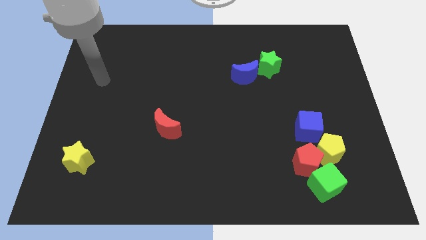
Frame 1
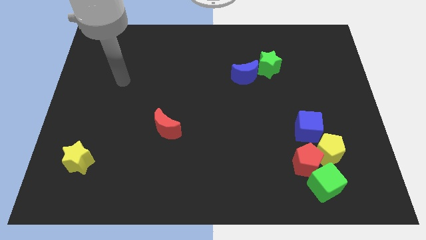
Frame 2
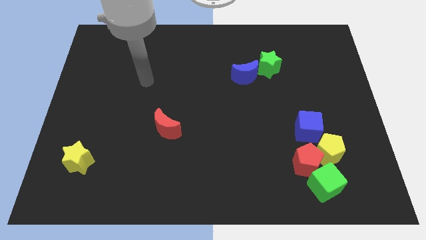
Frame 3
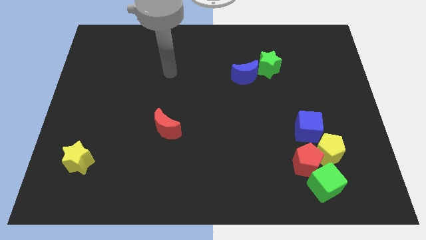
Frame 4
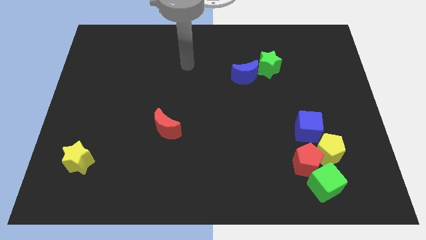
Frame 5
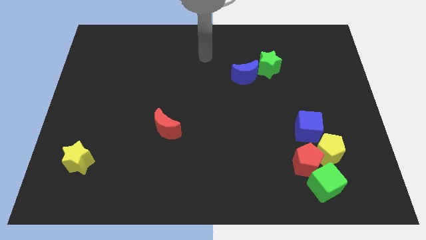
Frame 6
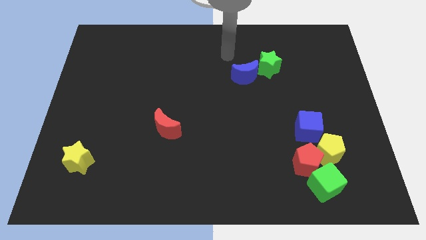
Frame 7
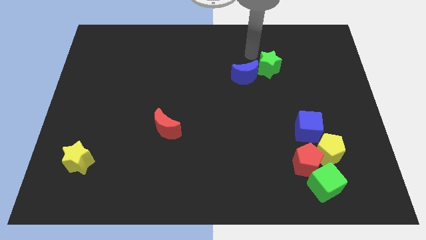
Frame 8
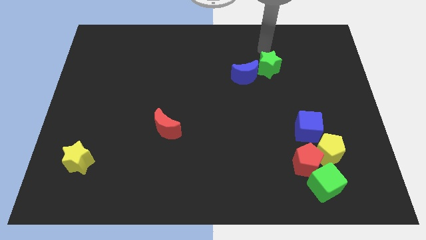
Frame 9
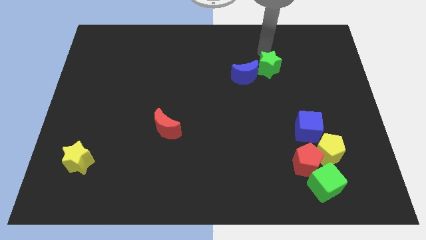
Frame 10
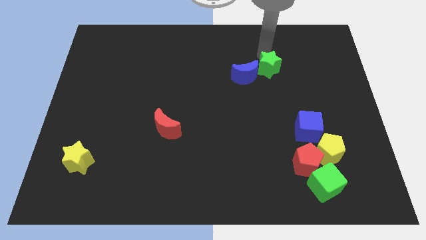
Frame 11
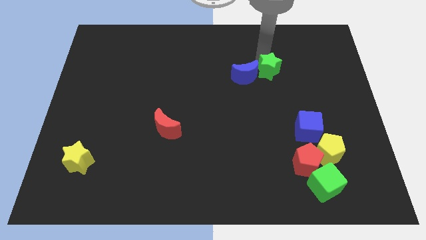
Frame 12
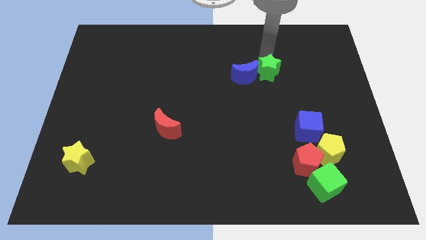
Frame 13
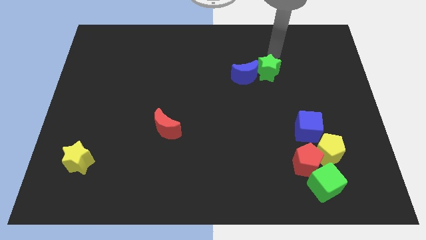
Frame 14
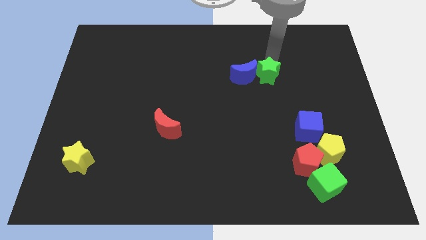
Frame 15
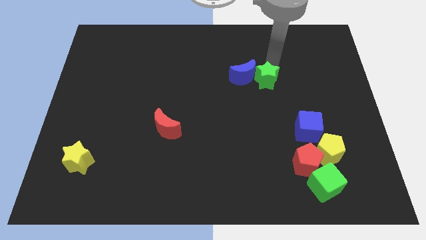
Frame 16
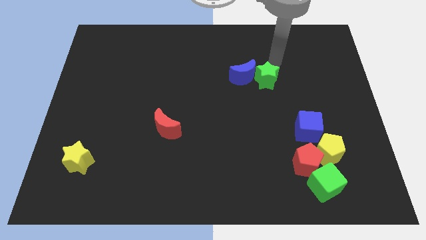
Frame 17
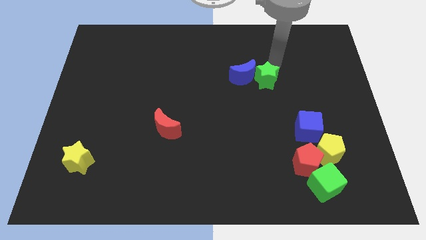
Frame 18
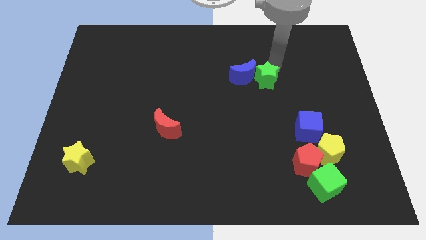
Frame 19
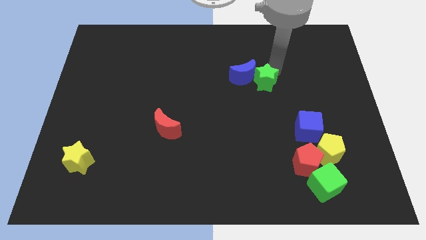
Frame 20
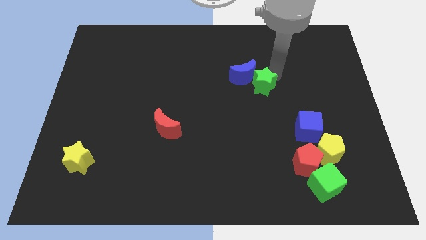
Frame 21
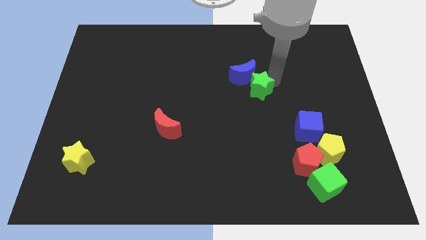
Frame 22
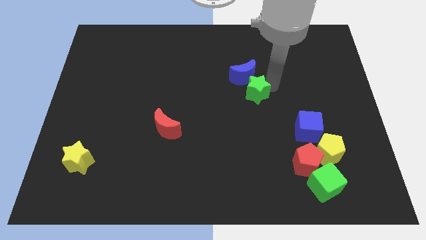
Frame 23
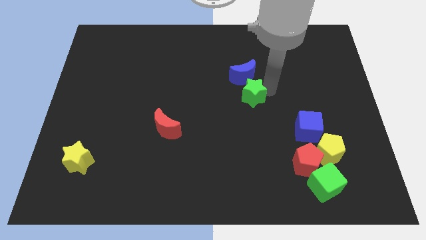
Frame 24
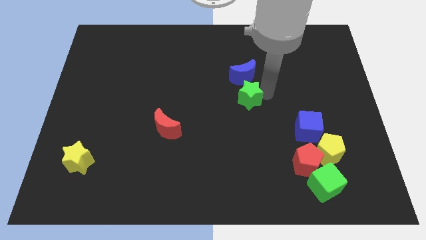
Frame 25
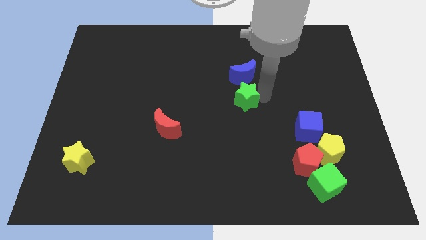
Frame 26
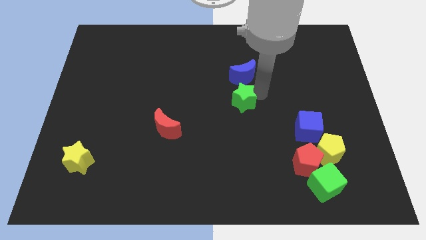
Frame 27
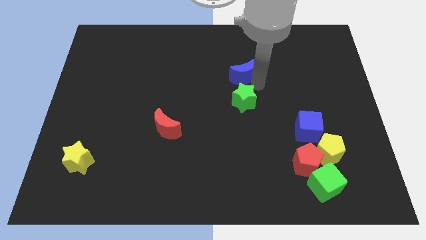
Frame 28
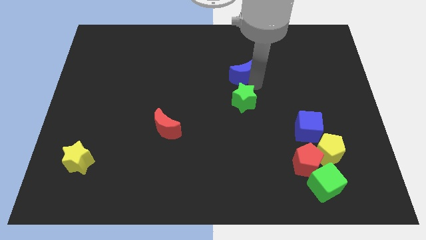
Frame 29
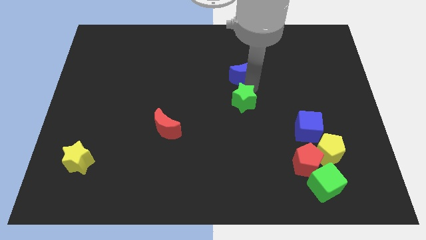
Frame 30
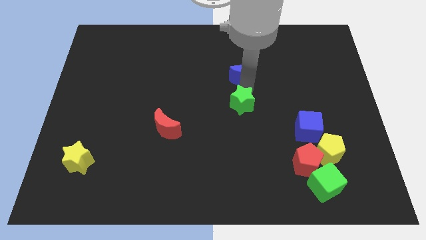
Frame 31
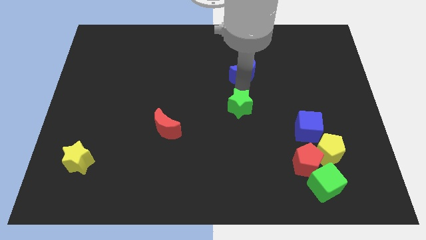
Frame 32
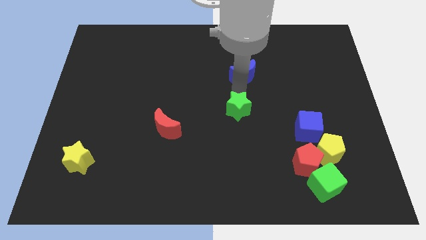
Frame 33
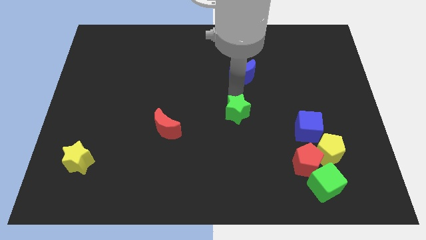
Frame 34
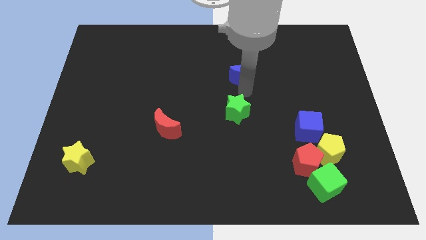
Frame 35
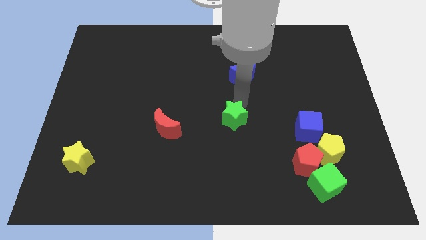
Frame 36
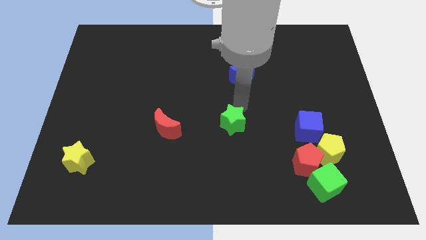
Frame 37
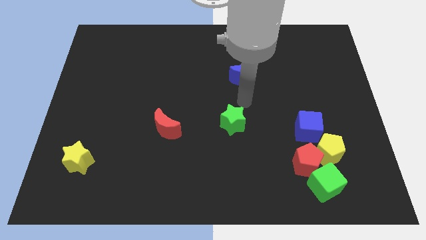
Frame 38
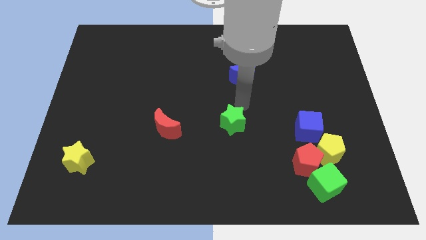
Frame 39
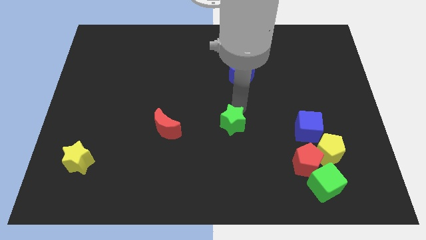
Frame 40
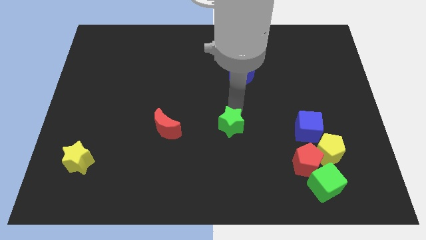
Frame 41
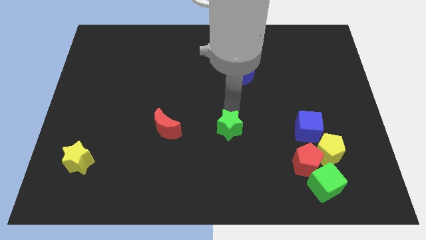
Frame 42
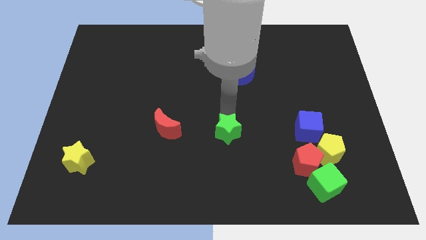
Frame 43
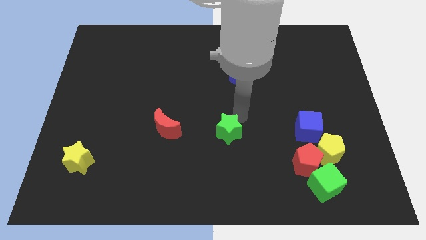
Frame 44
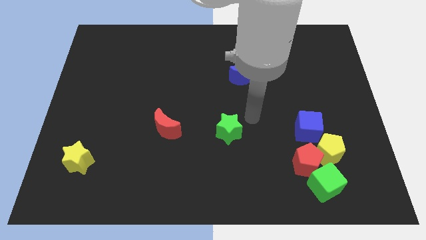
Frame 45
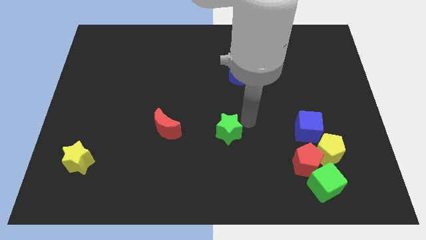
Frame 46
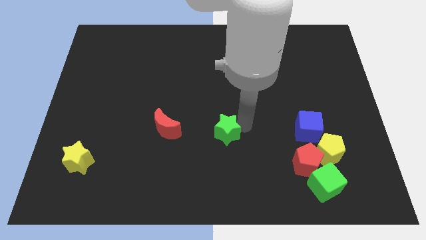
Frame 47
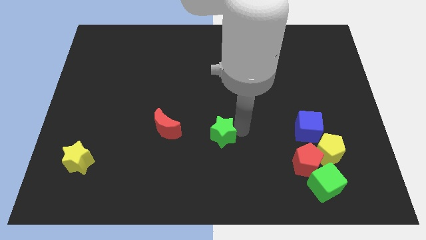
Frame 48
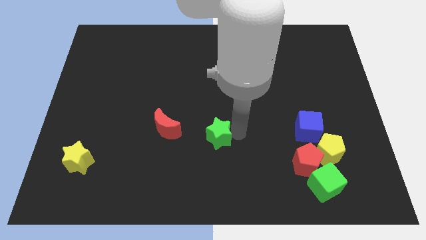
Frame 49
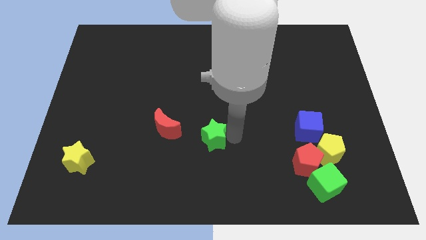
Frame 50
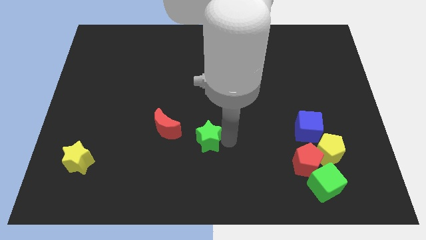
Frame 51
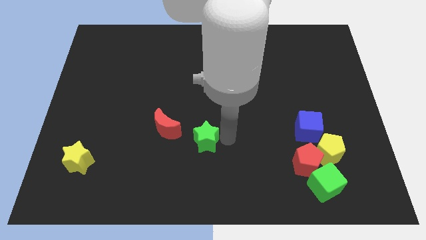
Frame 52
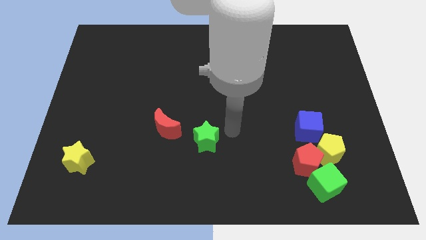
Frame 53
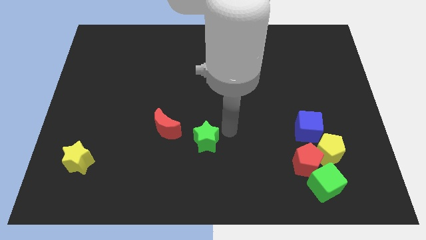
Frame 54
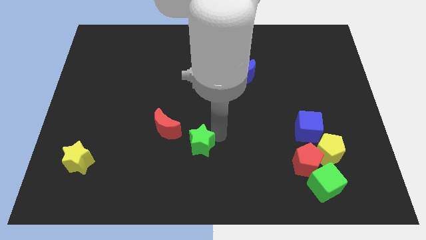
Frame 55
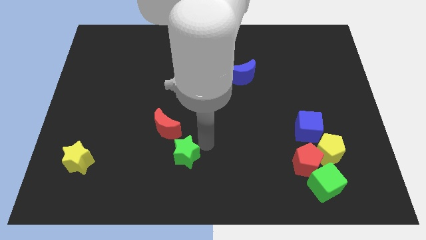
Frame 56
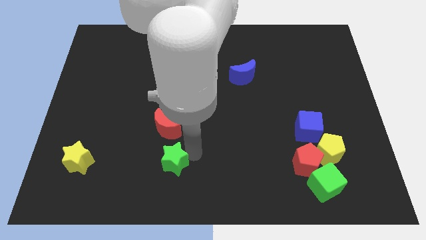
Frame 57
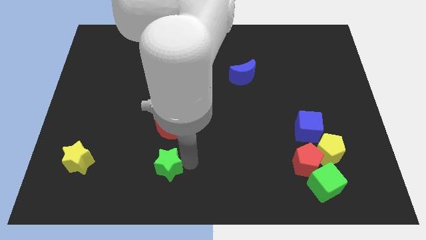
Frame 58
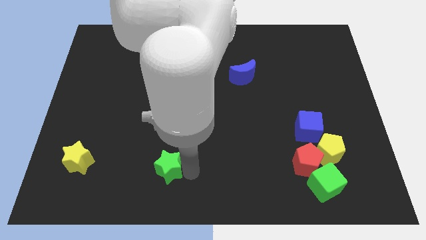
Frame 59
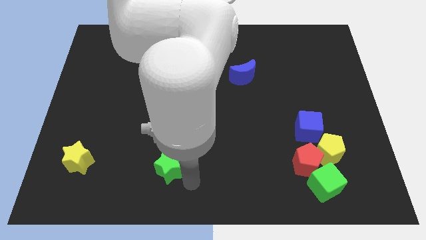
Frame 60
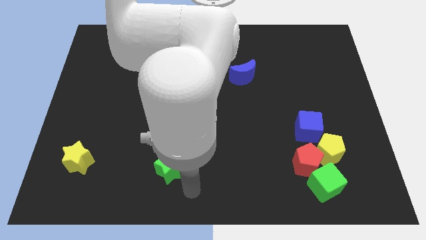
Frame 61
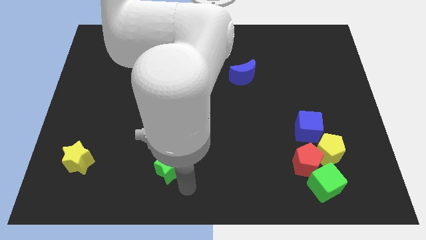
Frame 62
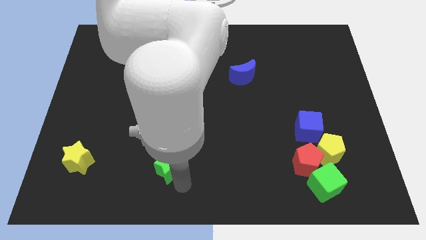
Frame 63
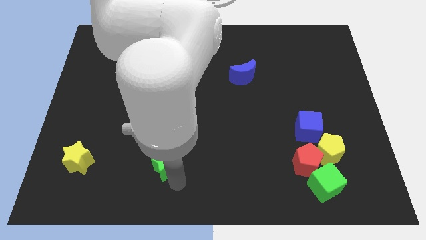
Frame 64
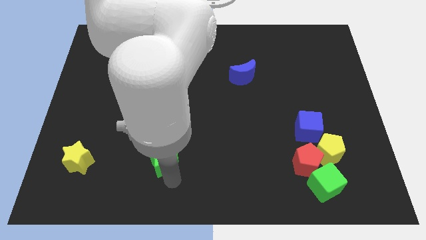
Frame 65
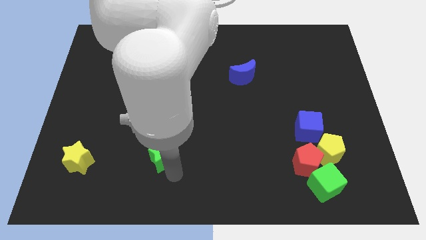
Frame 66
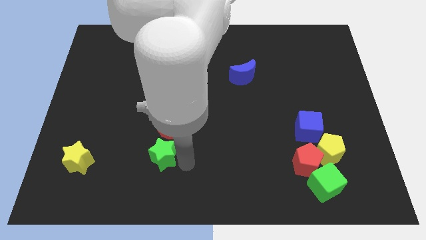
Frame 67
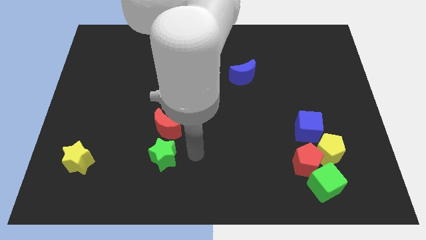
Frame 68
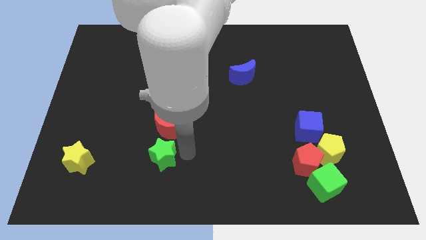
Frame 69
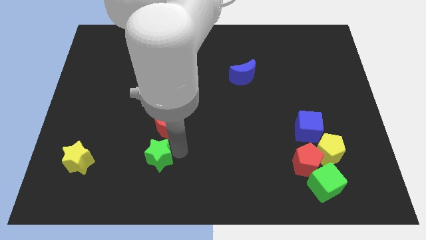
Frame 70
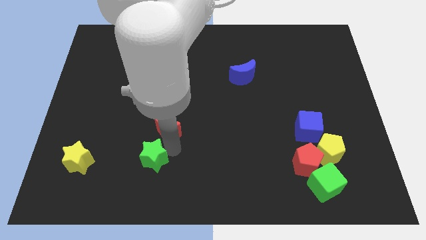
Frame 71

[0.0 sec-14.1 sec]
slide the green star to the right of the yellow star

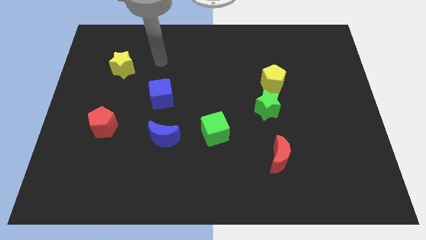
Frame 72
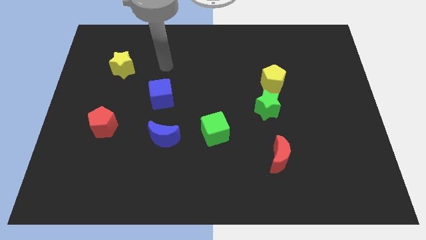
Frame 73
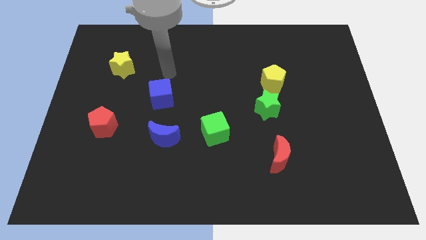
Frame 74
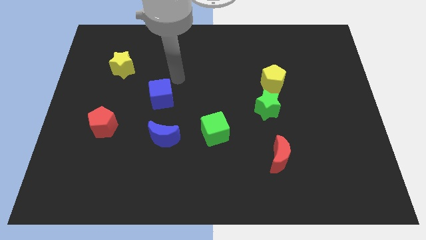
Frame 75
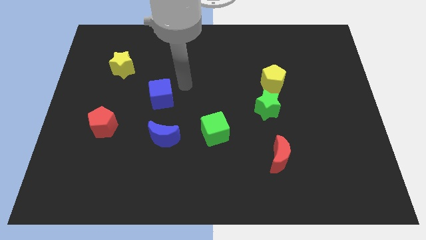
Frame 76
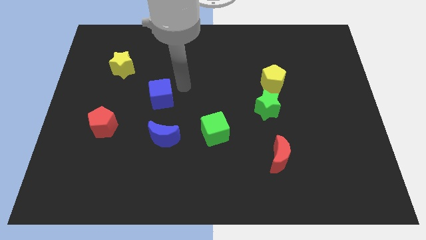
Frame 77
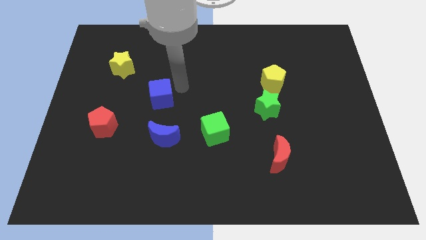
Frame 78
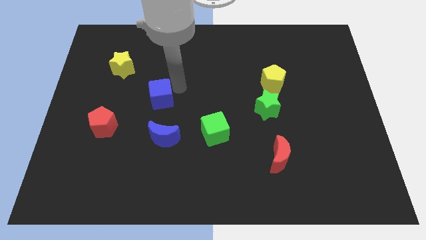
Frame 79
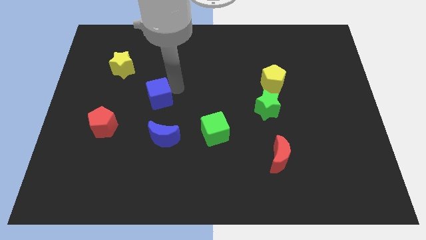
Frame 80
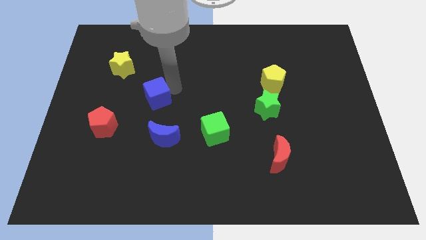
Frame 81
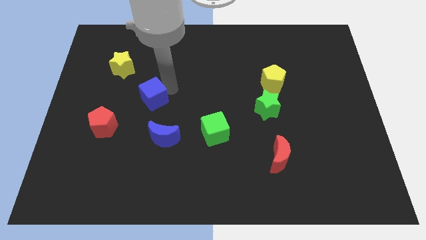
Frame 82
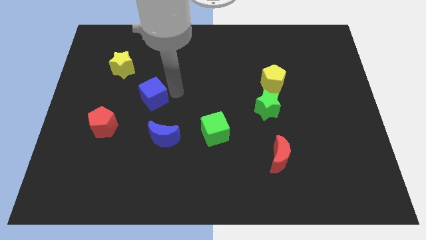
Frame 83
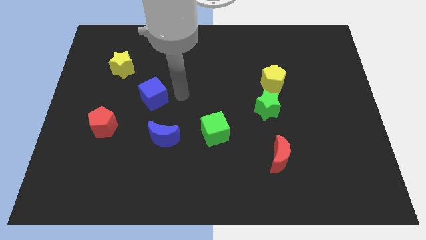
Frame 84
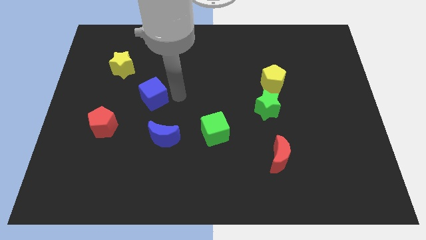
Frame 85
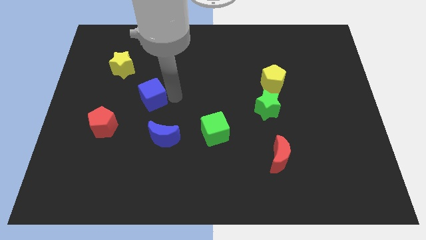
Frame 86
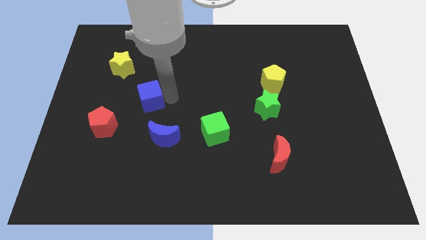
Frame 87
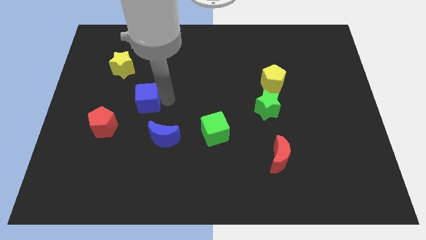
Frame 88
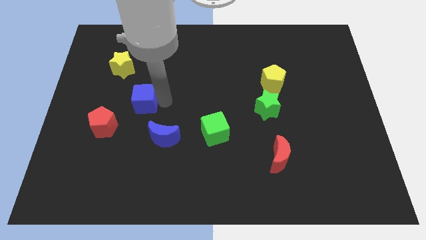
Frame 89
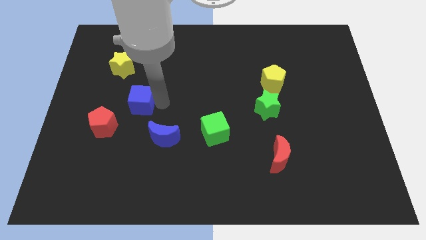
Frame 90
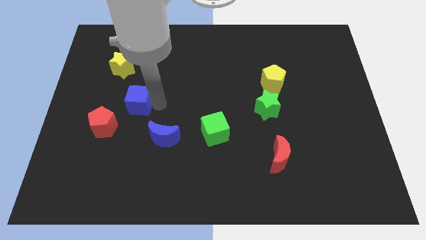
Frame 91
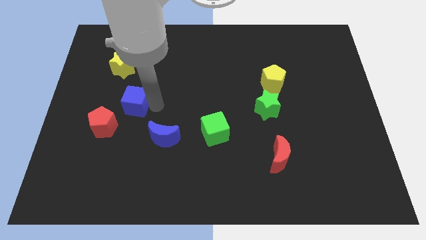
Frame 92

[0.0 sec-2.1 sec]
move the blue cube to the bottom of the yellow star
